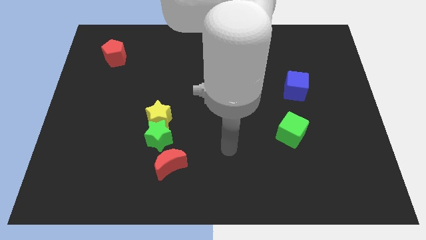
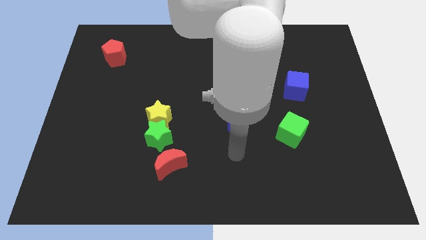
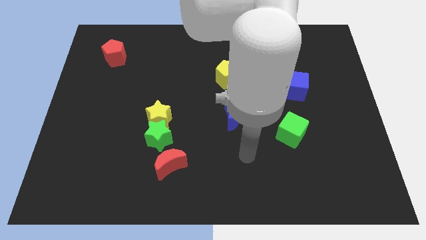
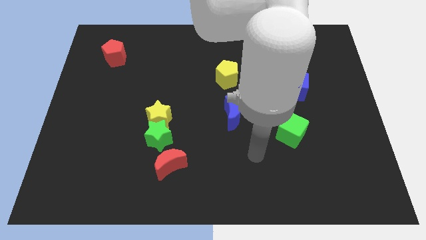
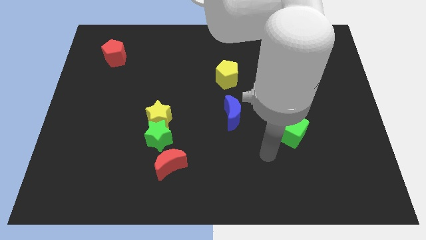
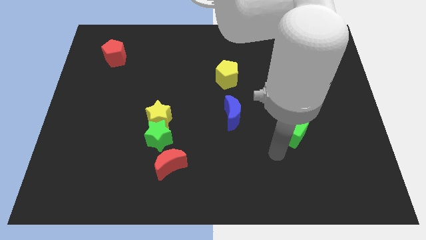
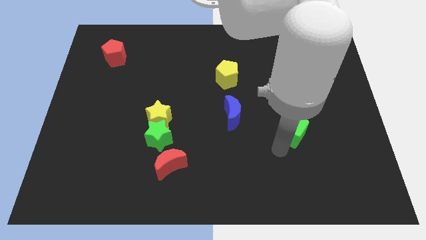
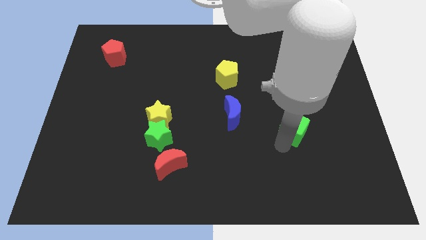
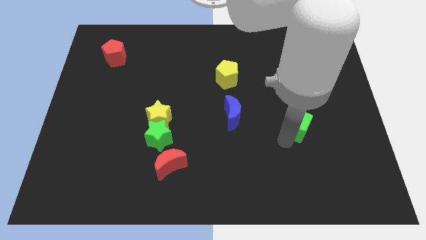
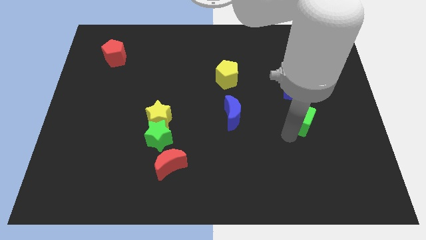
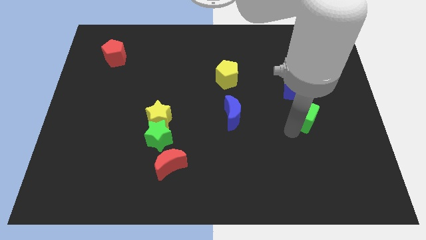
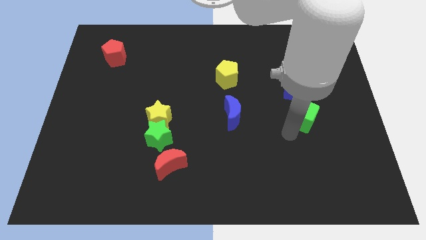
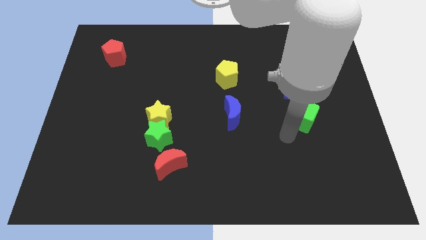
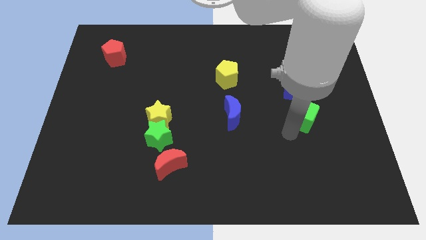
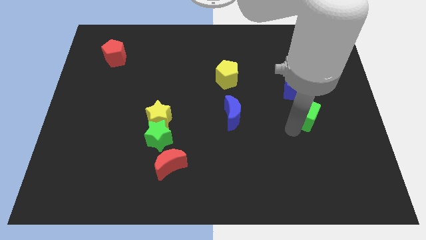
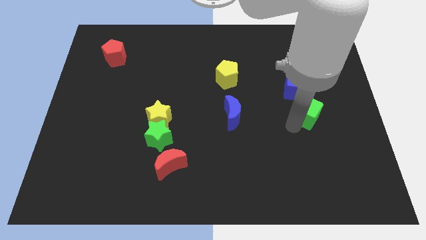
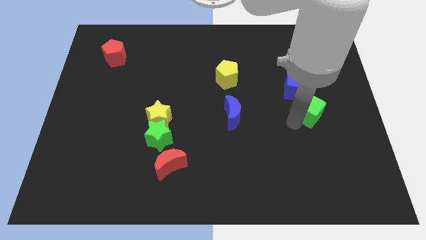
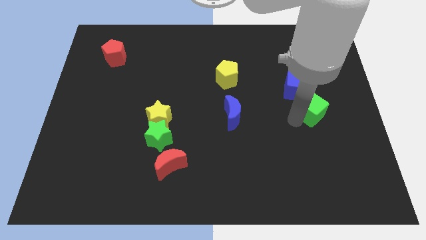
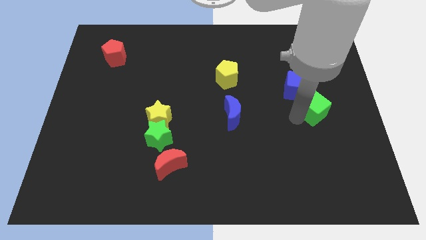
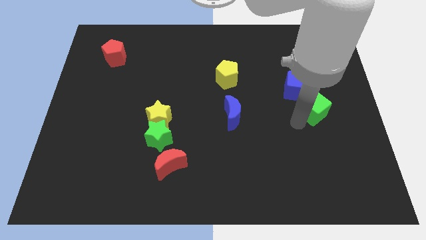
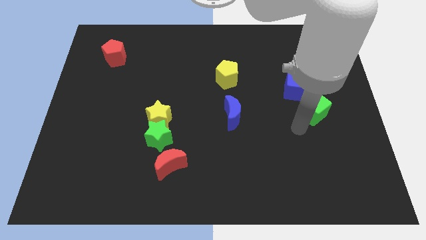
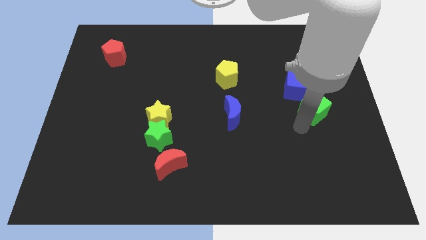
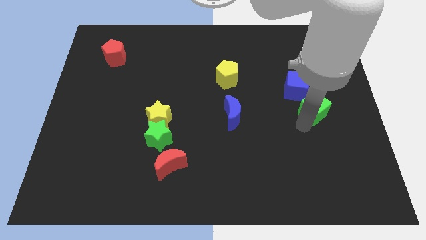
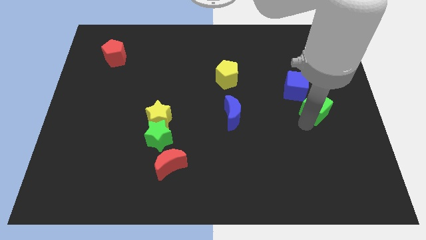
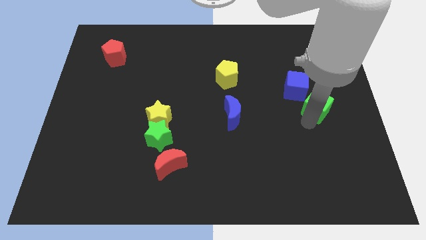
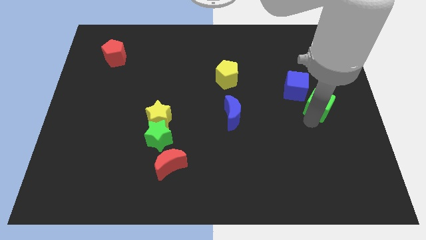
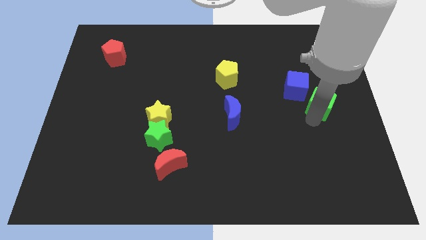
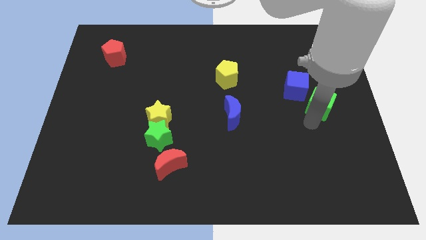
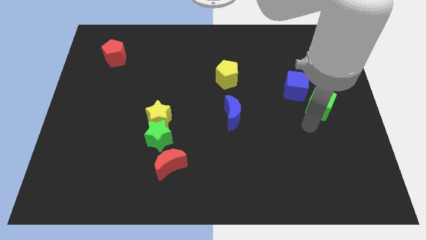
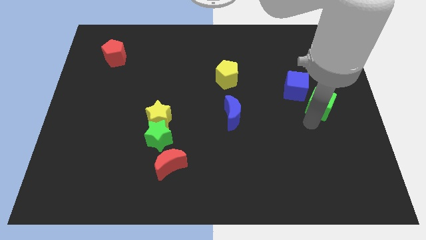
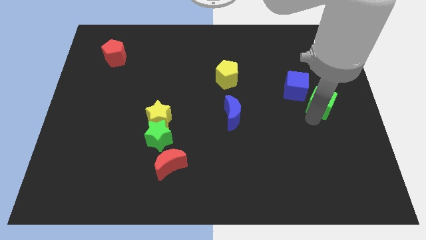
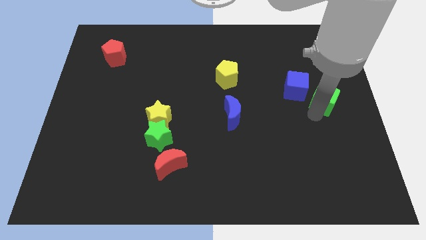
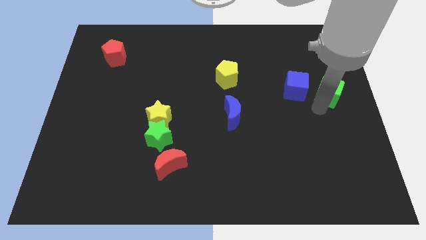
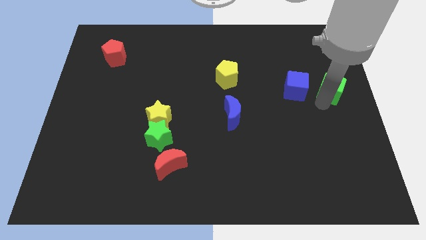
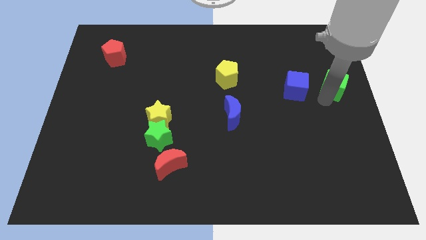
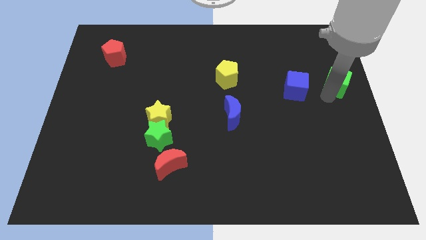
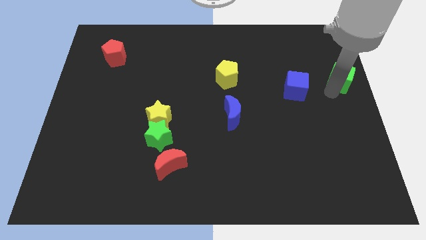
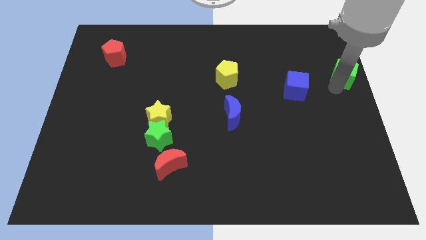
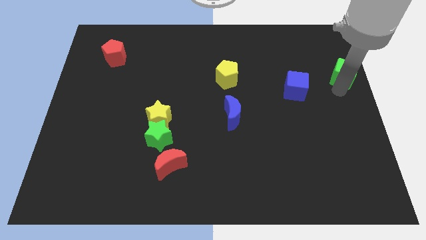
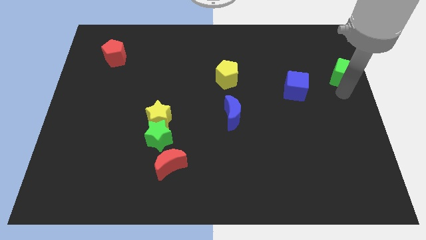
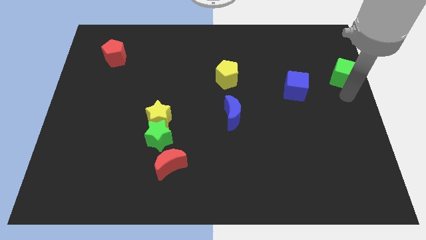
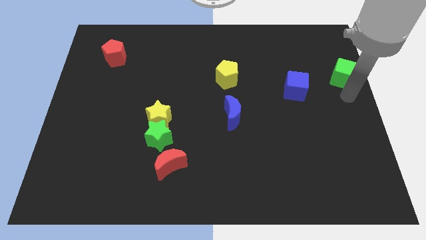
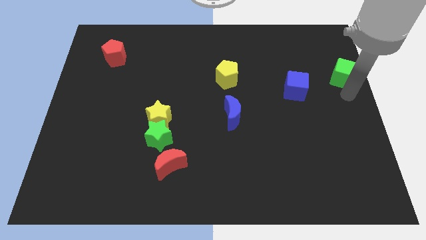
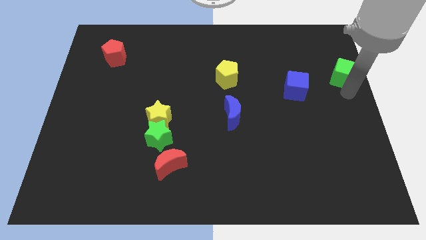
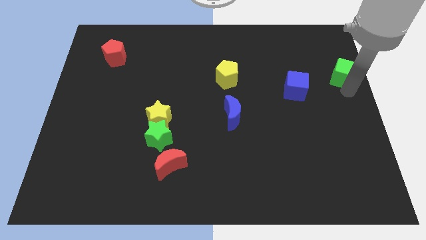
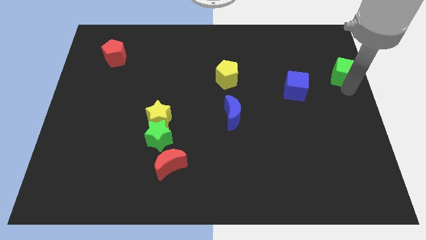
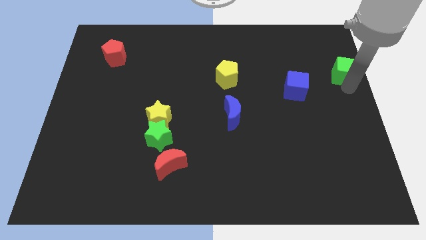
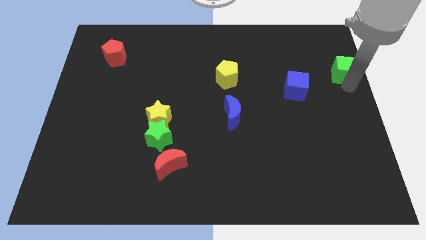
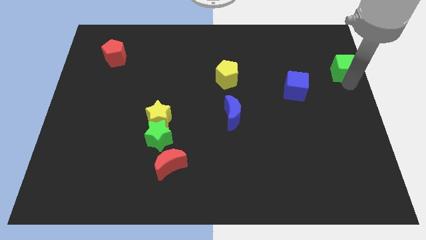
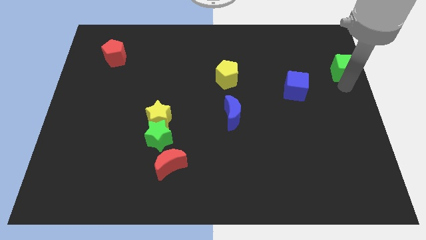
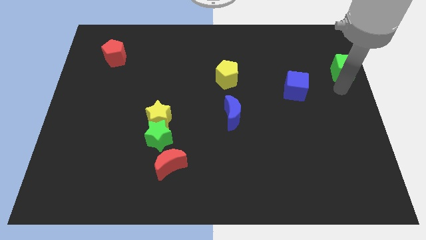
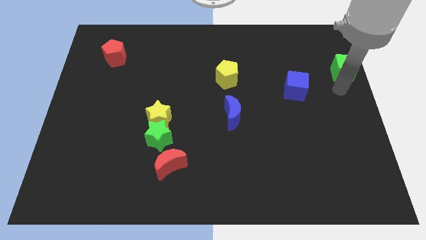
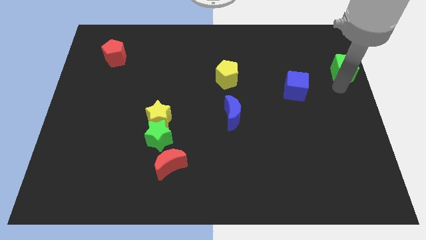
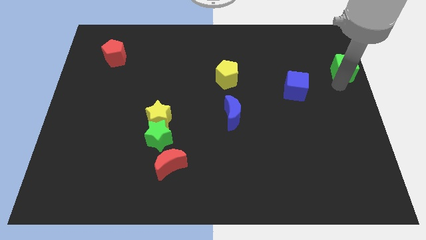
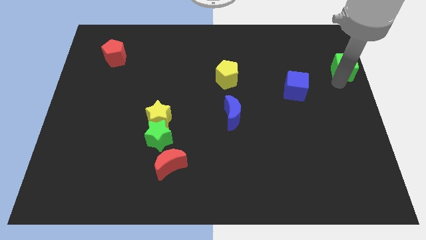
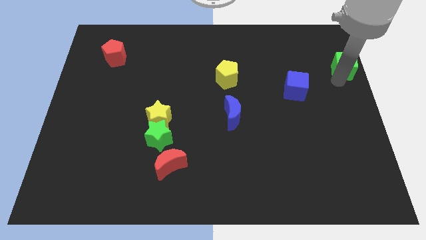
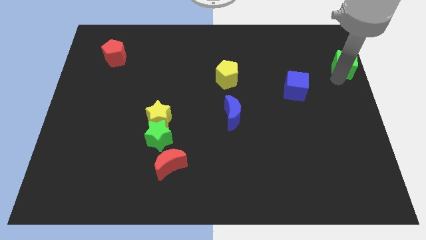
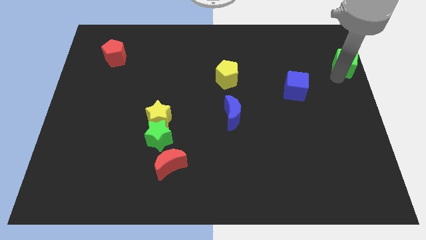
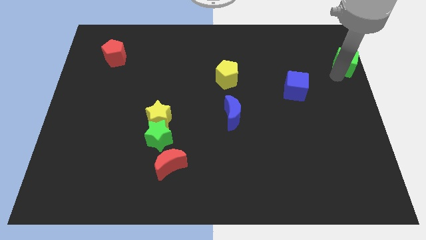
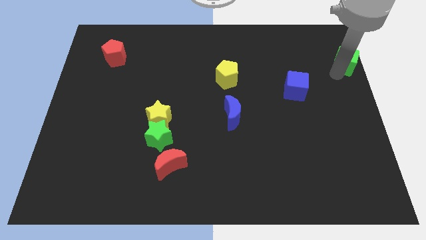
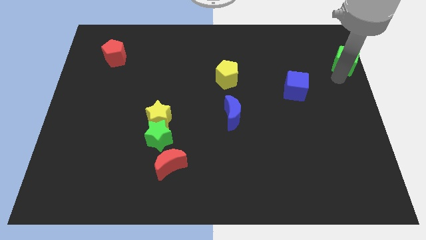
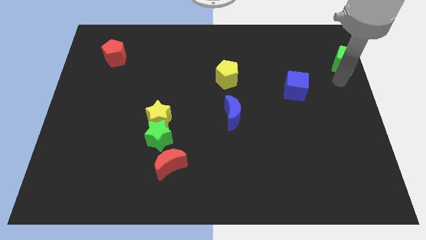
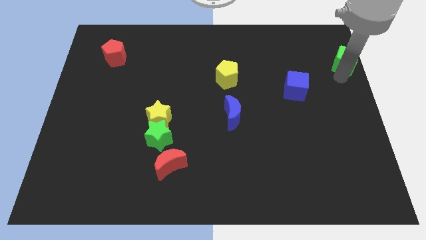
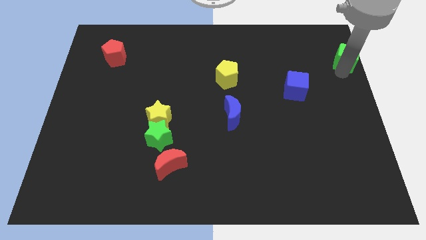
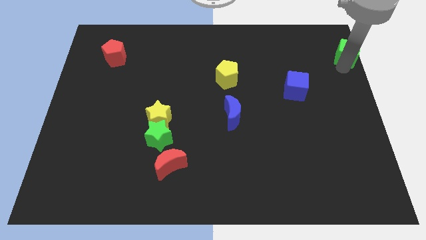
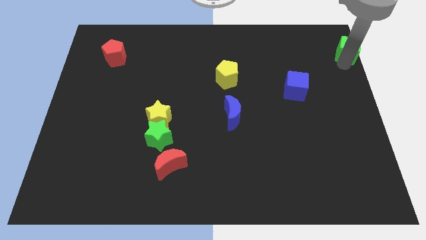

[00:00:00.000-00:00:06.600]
put the green cube to the top right corner

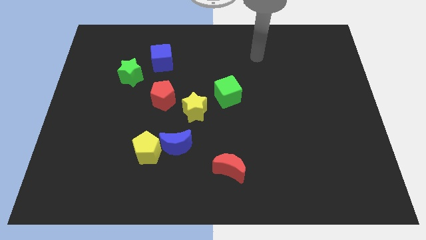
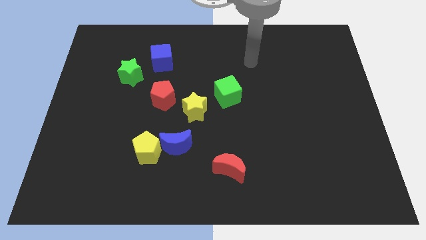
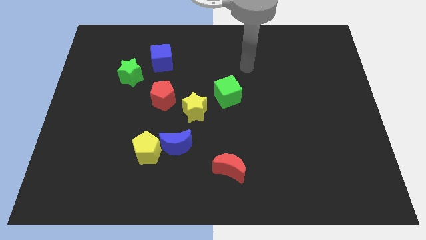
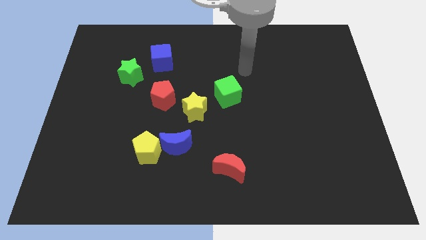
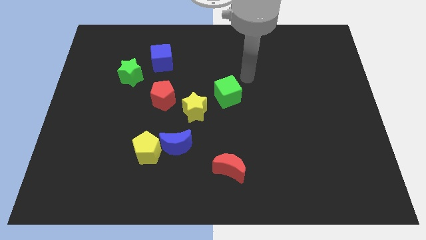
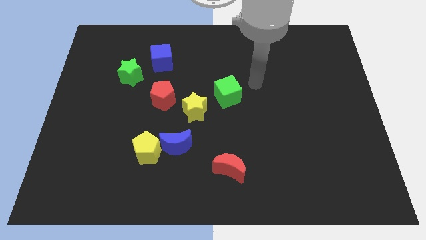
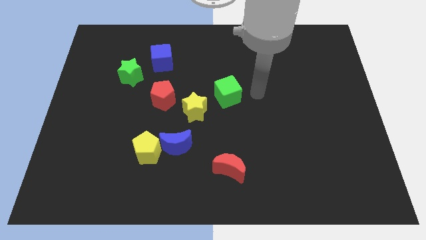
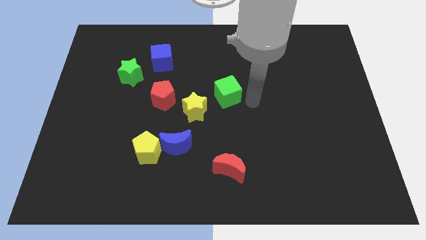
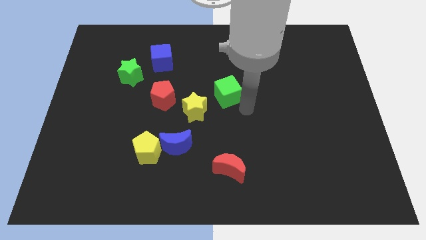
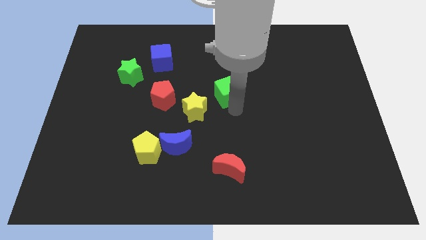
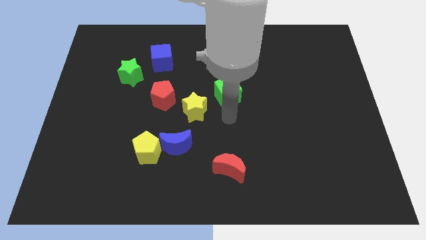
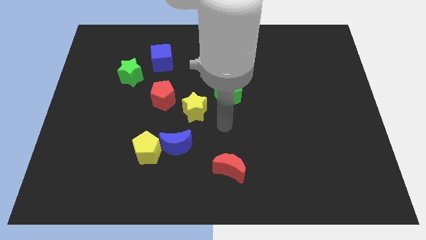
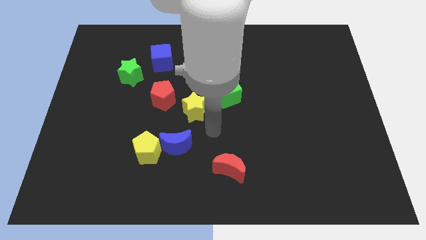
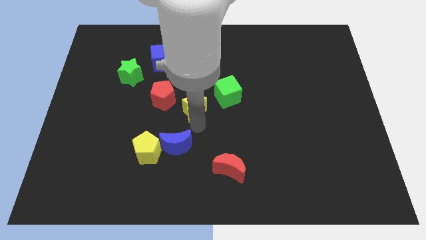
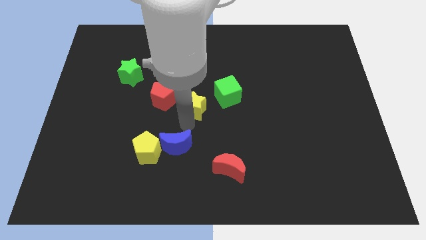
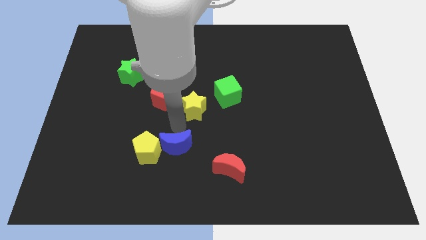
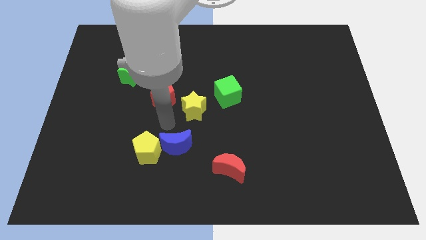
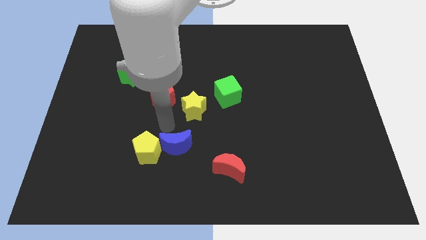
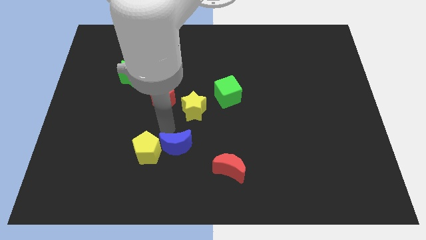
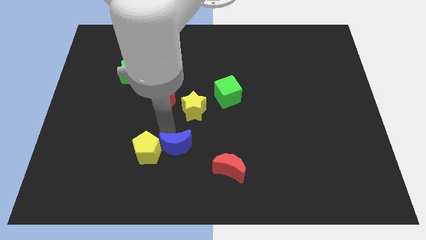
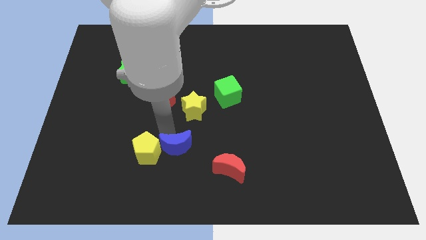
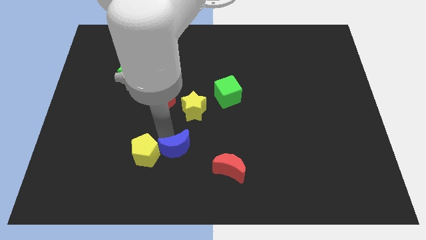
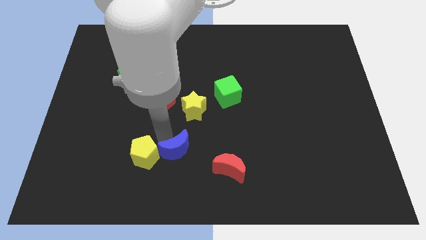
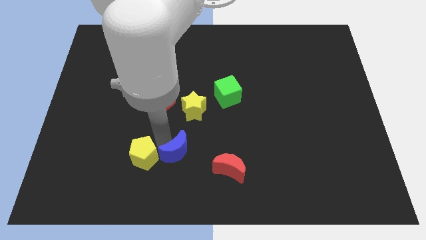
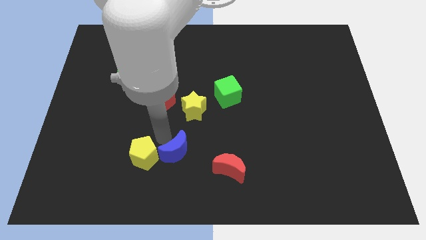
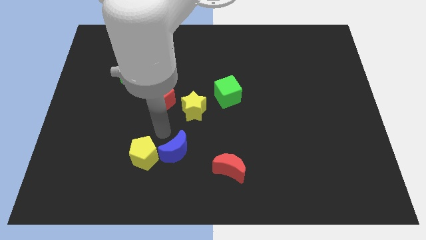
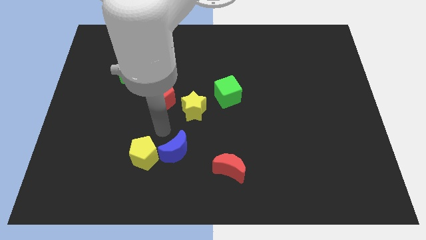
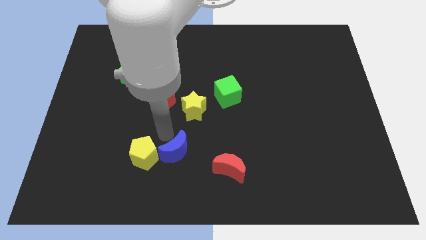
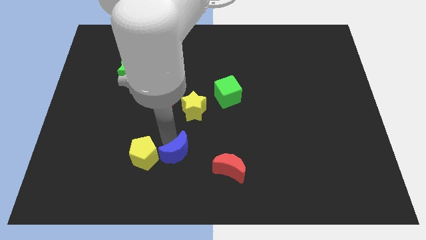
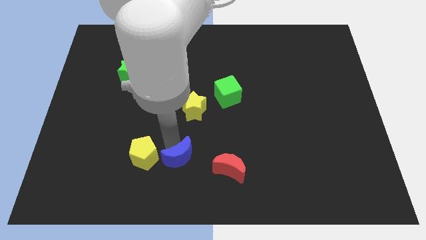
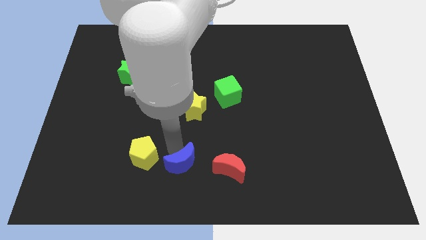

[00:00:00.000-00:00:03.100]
move the blue moon to the bottom
